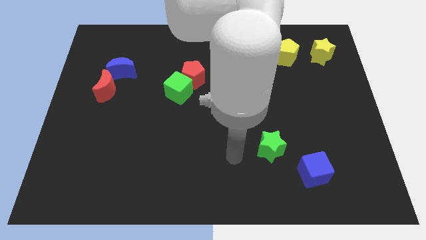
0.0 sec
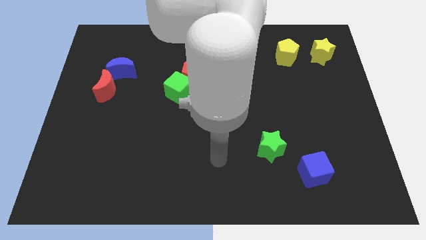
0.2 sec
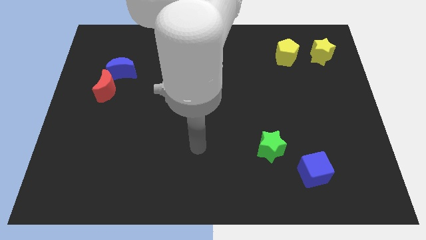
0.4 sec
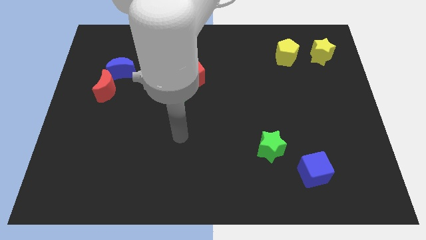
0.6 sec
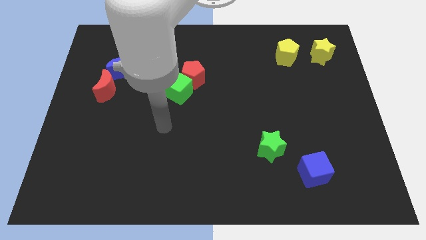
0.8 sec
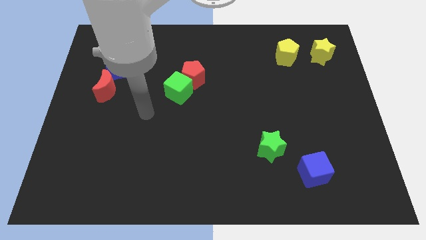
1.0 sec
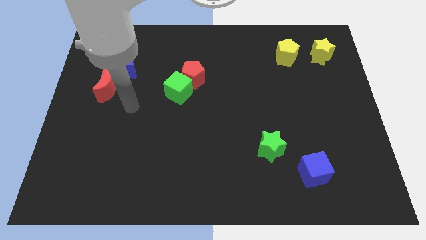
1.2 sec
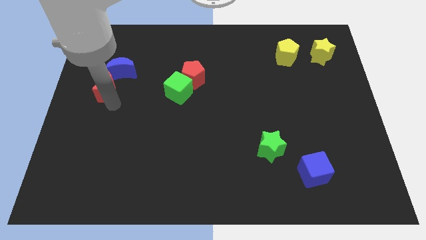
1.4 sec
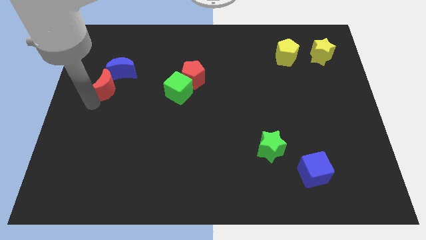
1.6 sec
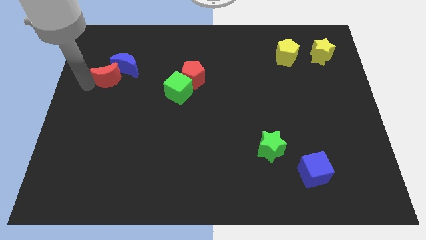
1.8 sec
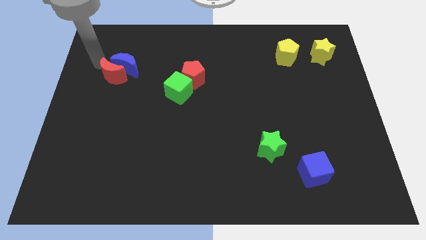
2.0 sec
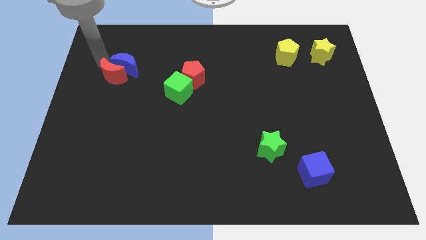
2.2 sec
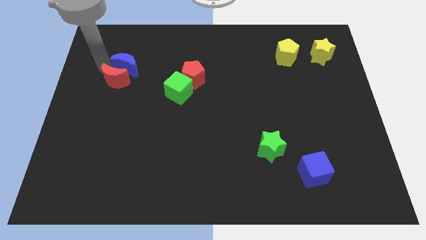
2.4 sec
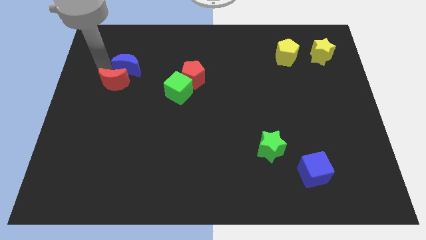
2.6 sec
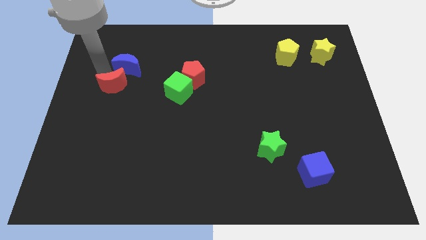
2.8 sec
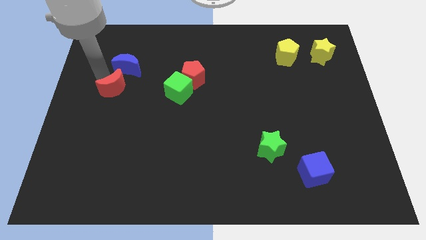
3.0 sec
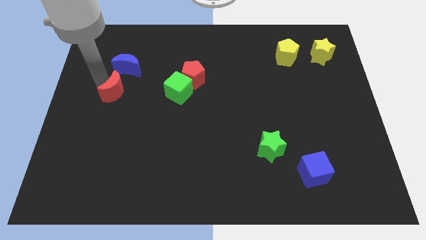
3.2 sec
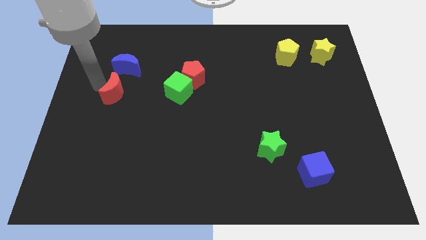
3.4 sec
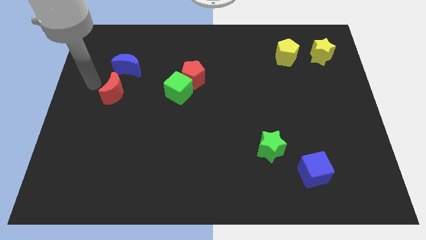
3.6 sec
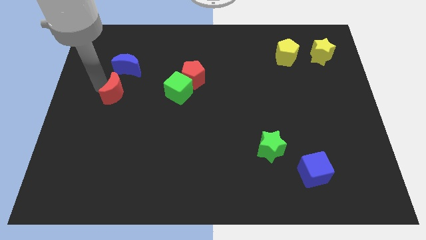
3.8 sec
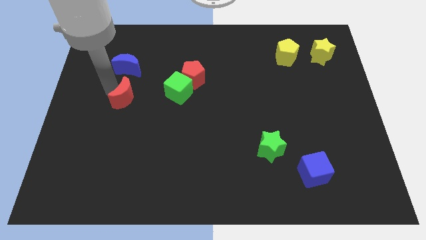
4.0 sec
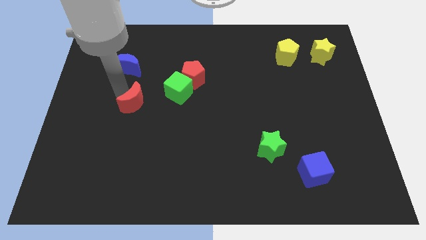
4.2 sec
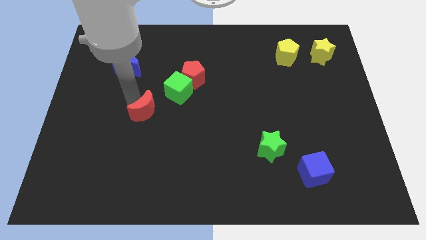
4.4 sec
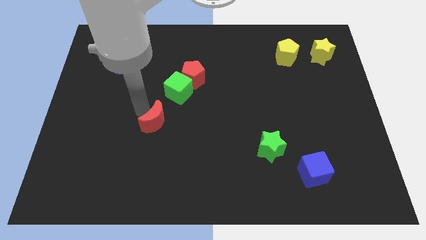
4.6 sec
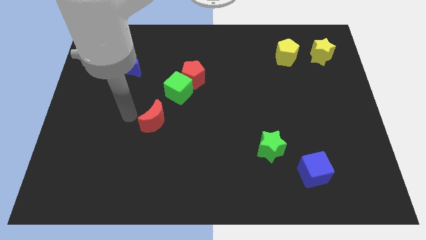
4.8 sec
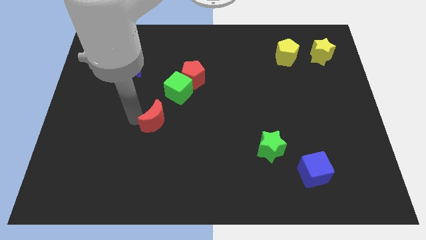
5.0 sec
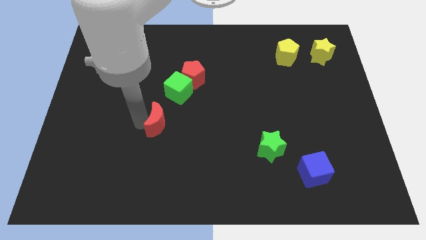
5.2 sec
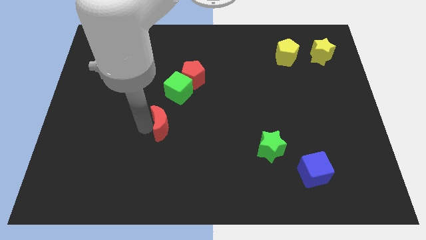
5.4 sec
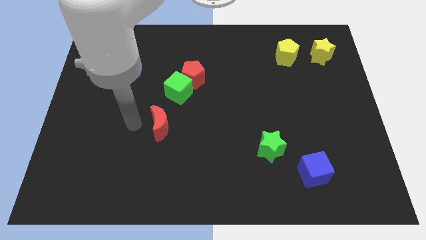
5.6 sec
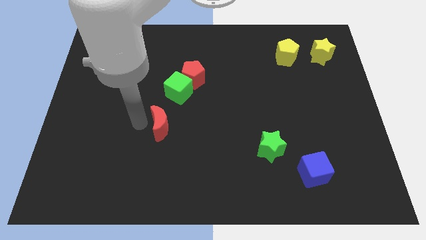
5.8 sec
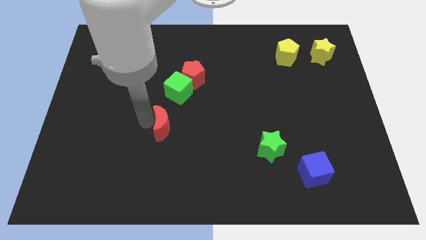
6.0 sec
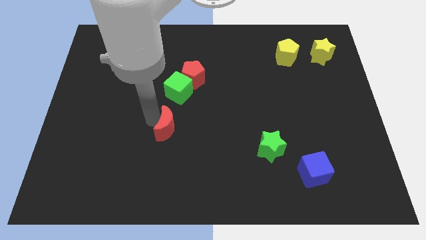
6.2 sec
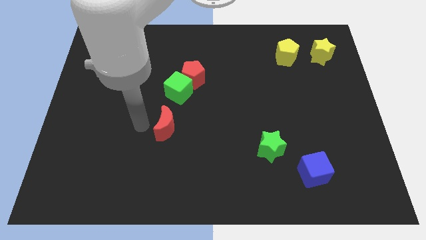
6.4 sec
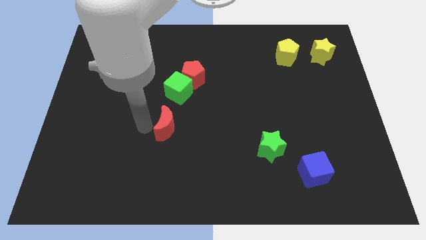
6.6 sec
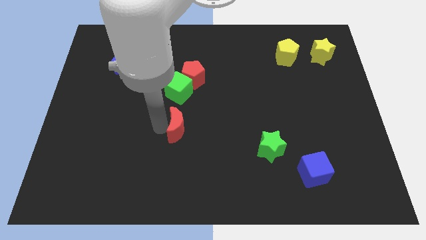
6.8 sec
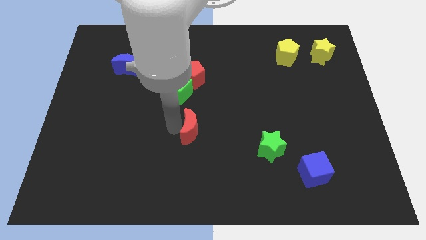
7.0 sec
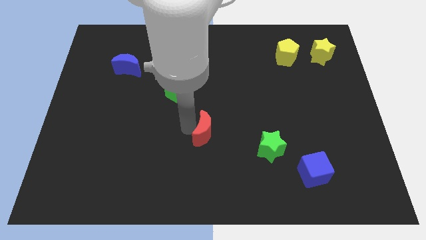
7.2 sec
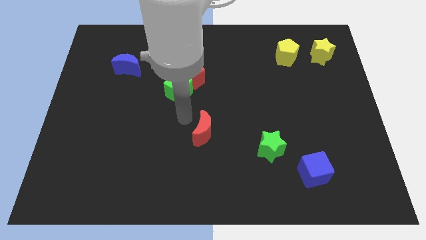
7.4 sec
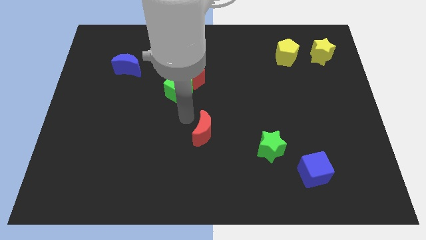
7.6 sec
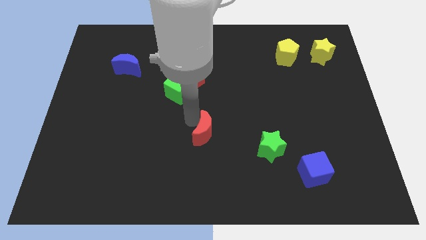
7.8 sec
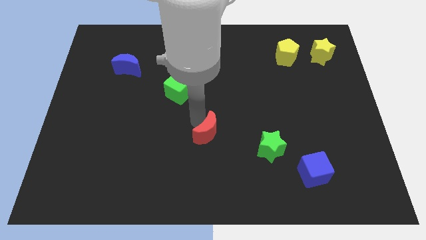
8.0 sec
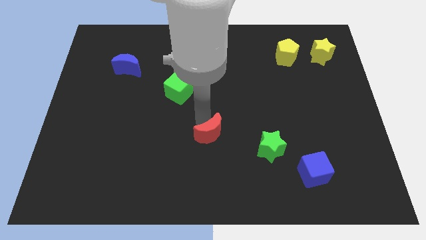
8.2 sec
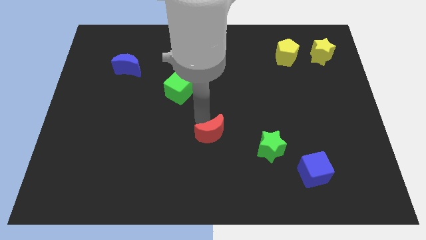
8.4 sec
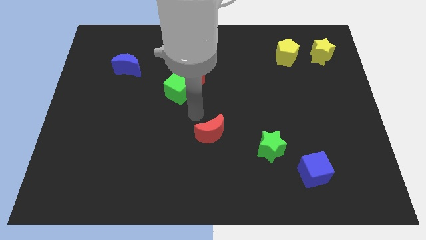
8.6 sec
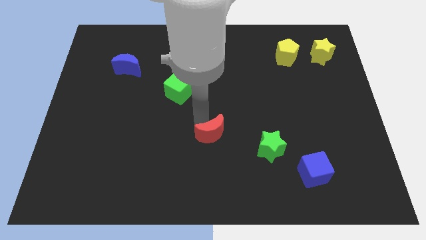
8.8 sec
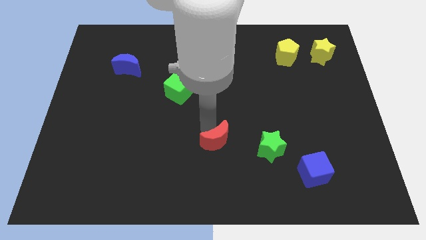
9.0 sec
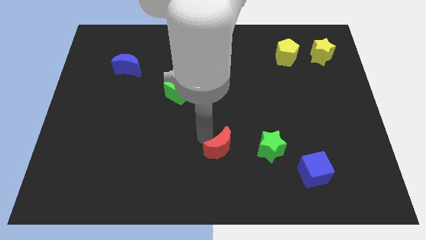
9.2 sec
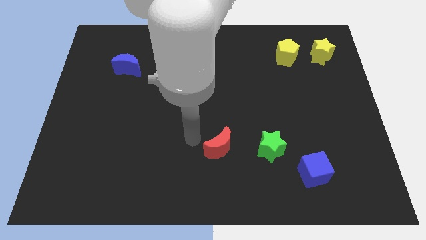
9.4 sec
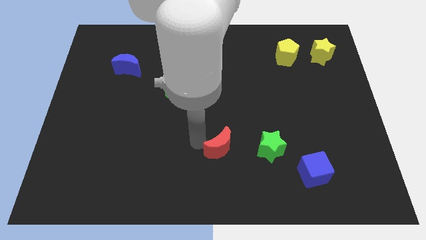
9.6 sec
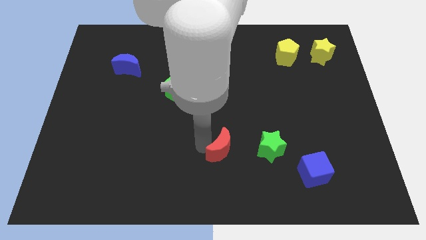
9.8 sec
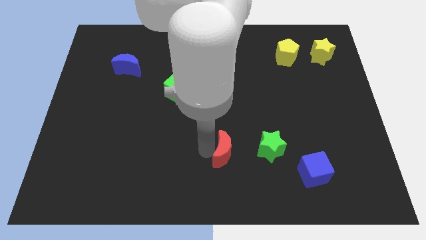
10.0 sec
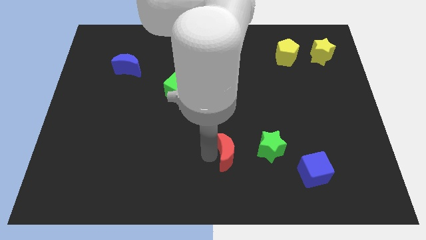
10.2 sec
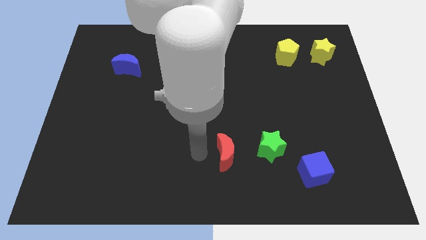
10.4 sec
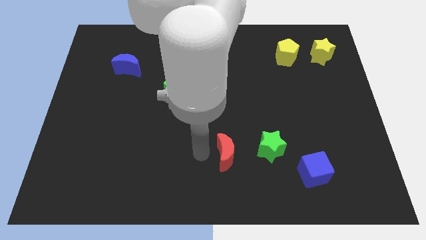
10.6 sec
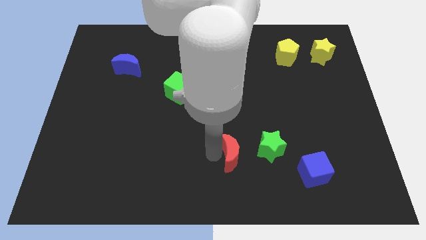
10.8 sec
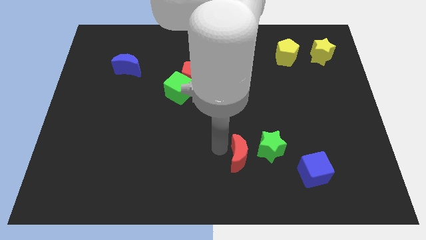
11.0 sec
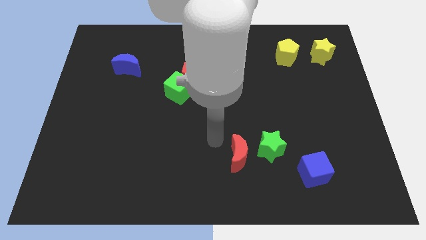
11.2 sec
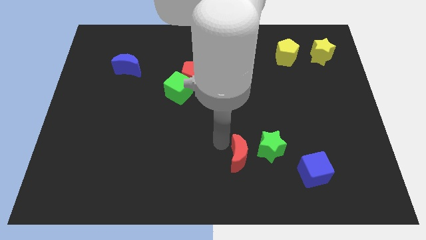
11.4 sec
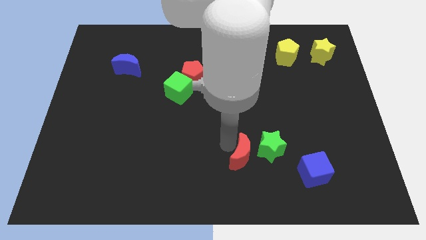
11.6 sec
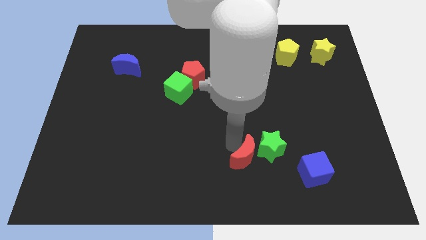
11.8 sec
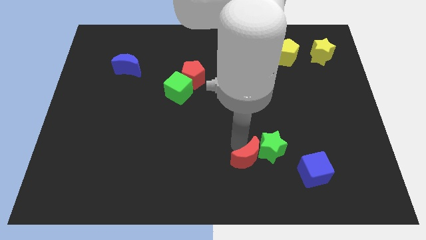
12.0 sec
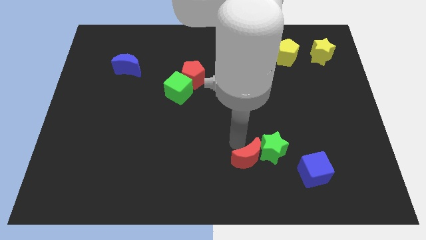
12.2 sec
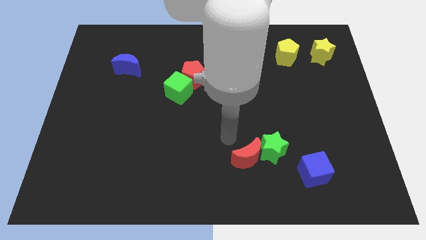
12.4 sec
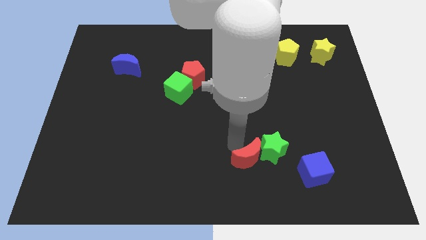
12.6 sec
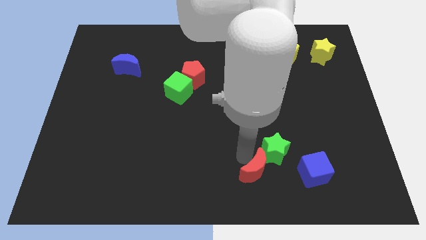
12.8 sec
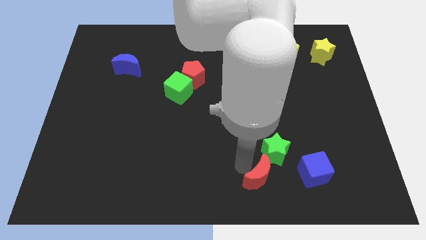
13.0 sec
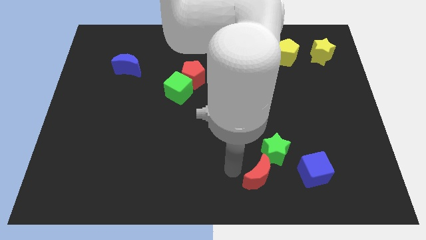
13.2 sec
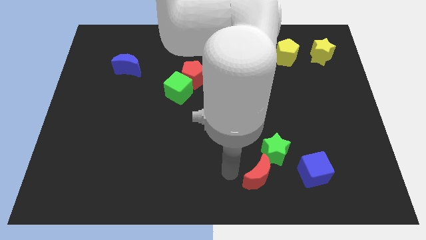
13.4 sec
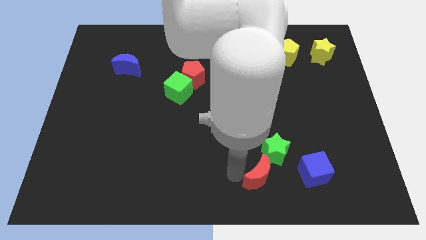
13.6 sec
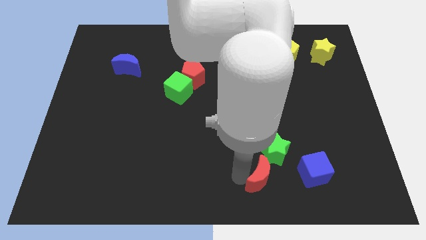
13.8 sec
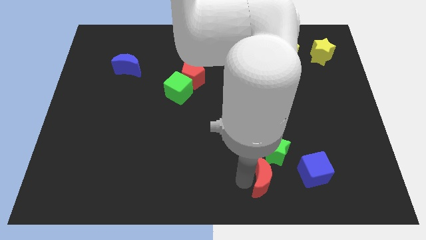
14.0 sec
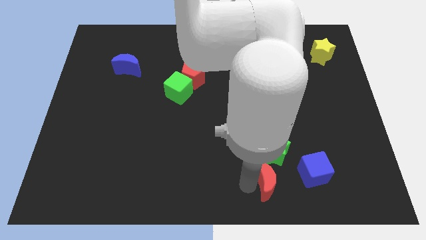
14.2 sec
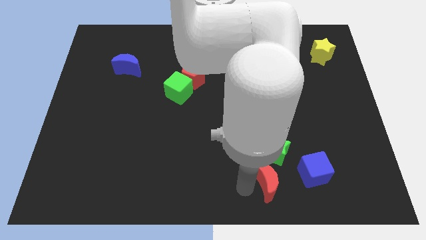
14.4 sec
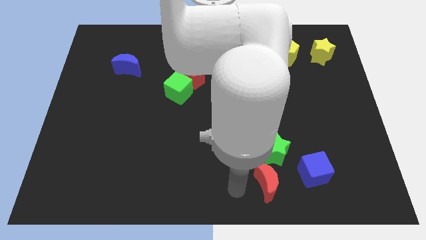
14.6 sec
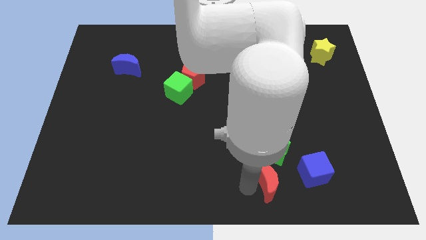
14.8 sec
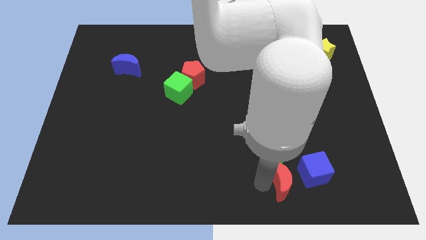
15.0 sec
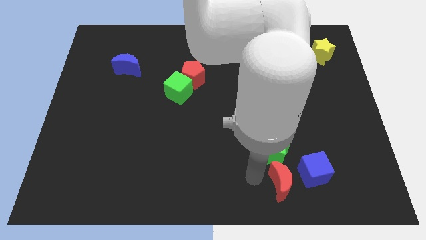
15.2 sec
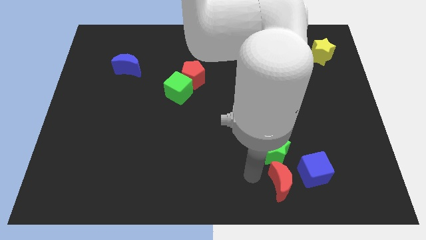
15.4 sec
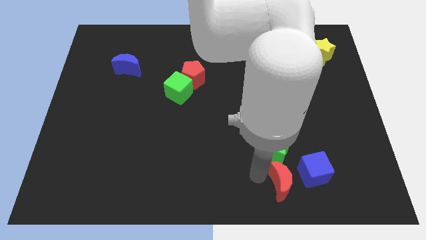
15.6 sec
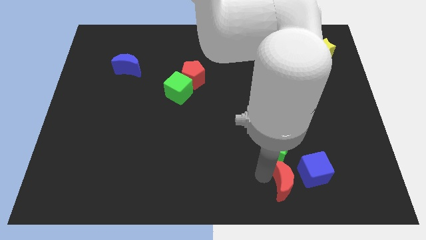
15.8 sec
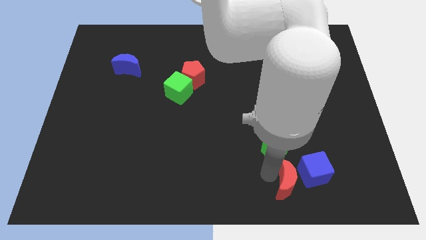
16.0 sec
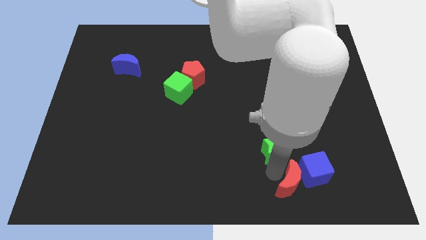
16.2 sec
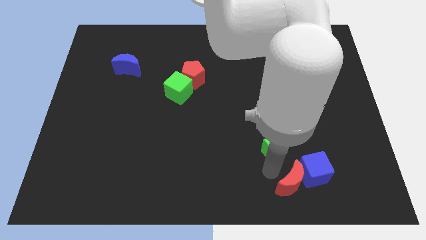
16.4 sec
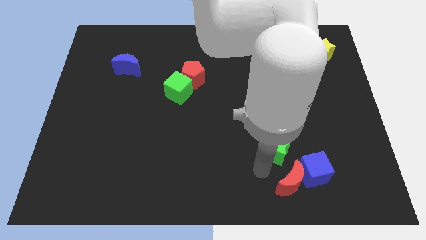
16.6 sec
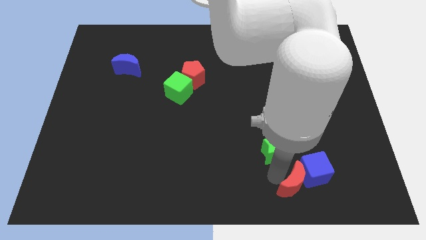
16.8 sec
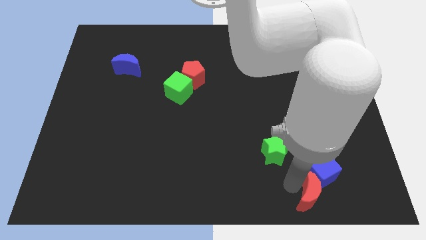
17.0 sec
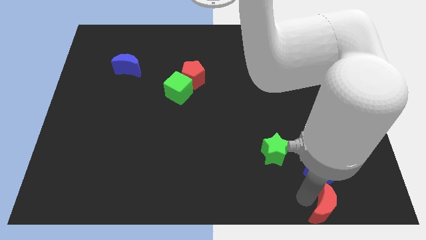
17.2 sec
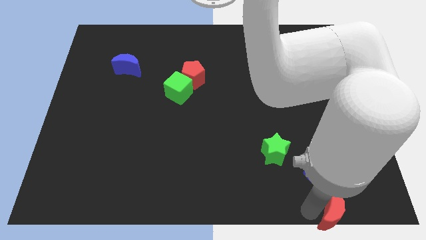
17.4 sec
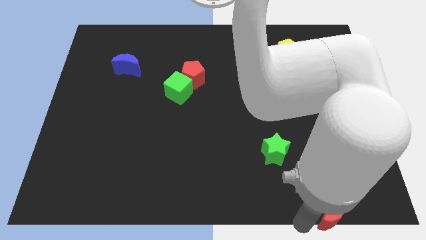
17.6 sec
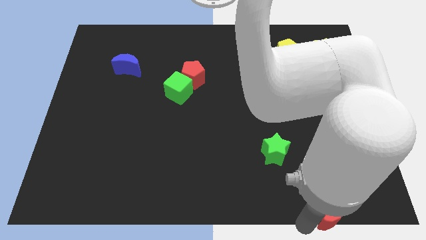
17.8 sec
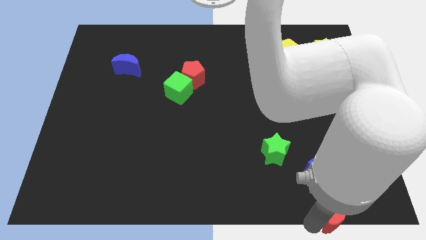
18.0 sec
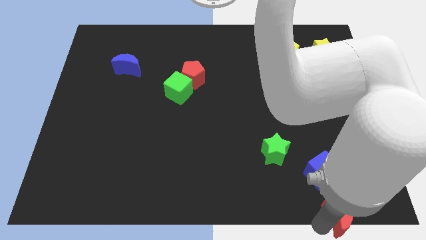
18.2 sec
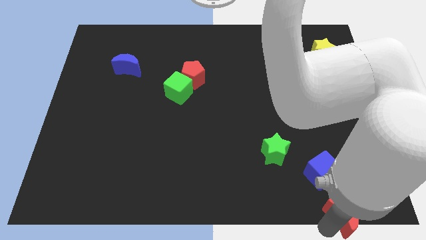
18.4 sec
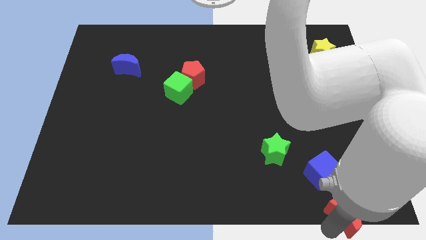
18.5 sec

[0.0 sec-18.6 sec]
put the red moon to the bottom right
